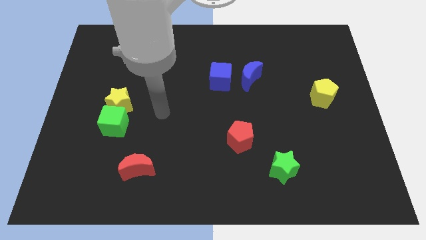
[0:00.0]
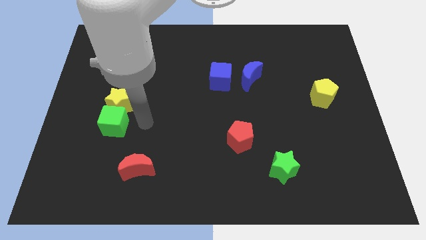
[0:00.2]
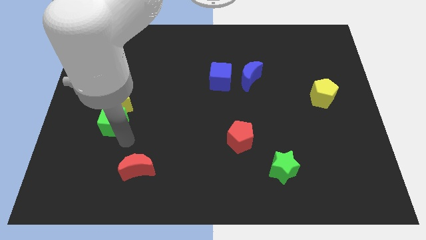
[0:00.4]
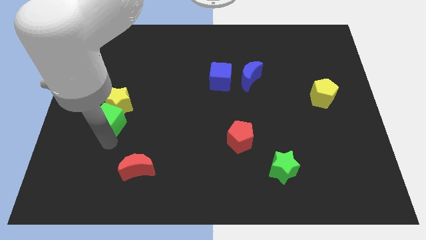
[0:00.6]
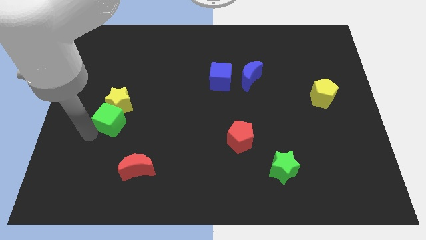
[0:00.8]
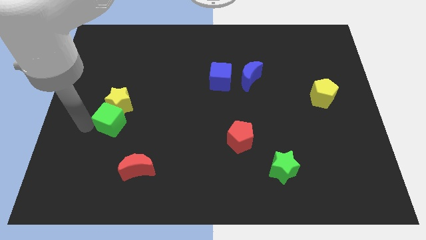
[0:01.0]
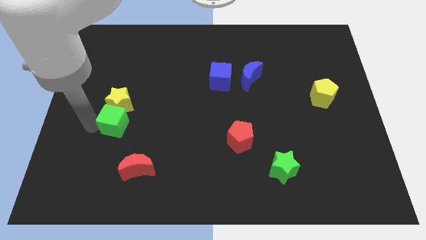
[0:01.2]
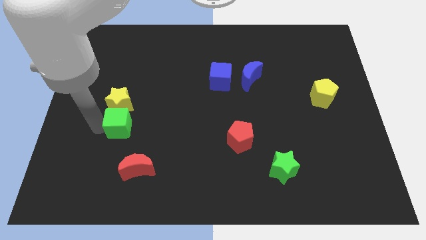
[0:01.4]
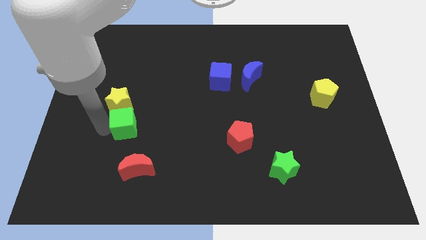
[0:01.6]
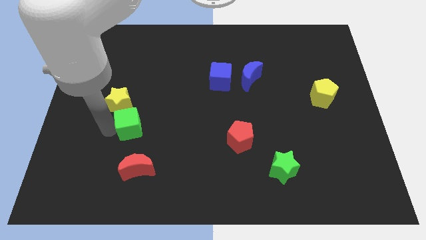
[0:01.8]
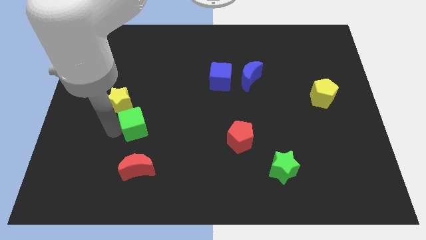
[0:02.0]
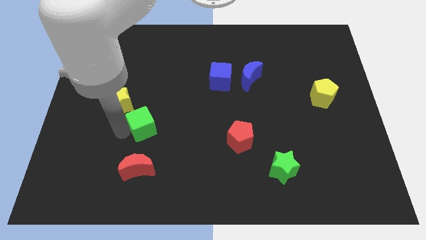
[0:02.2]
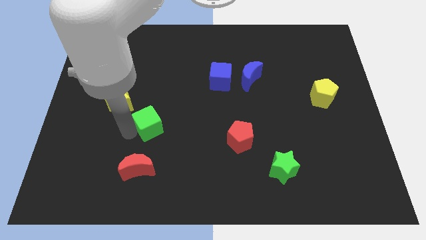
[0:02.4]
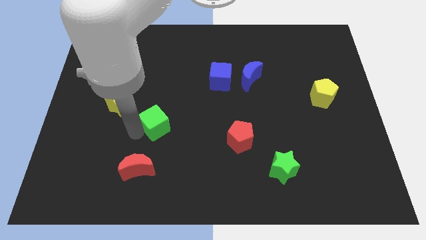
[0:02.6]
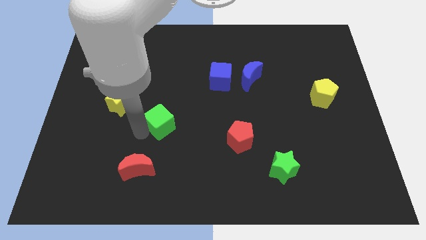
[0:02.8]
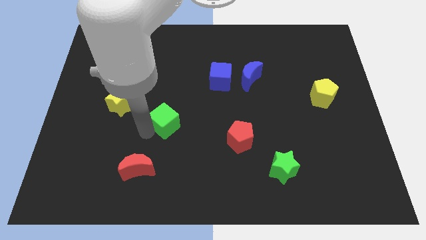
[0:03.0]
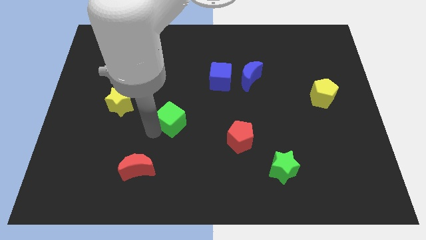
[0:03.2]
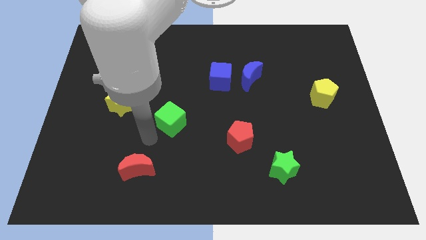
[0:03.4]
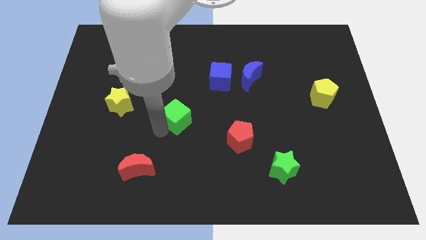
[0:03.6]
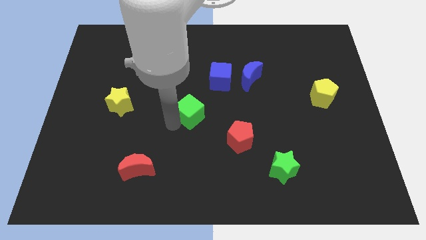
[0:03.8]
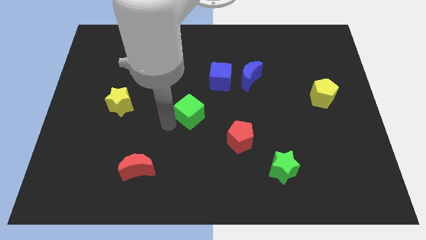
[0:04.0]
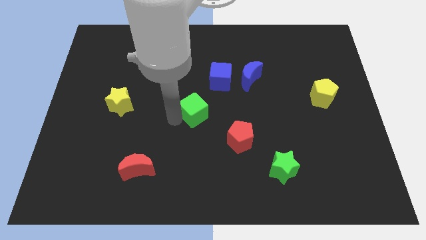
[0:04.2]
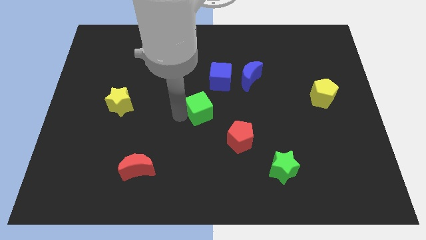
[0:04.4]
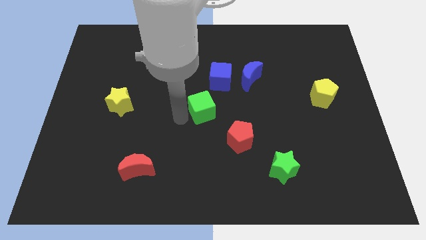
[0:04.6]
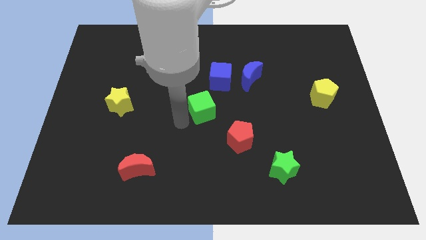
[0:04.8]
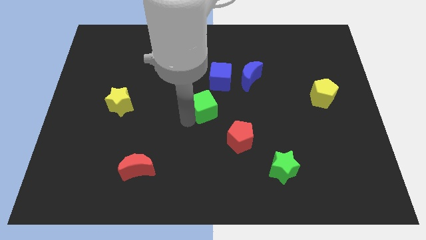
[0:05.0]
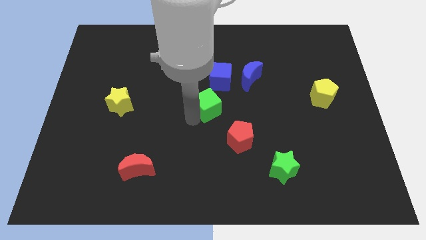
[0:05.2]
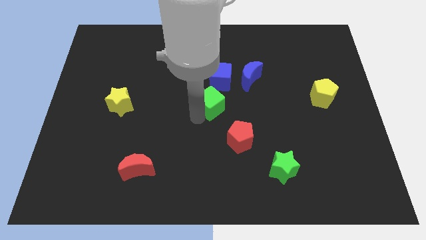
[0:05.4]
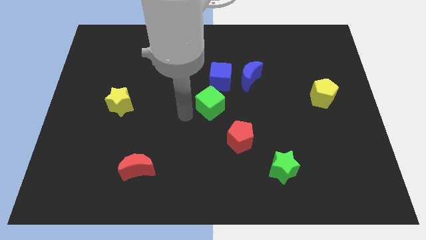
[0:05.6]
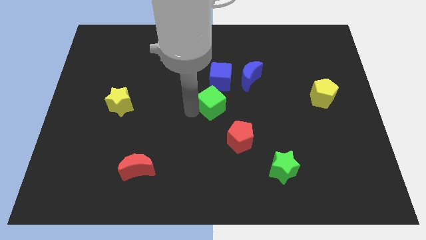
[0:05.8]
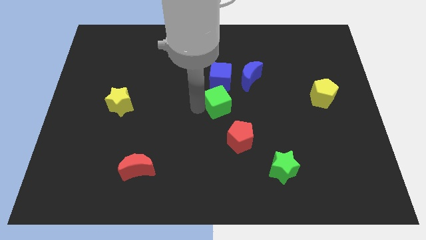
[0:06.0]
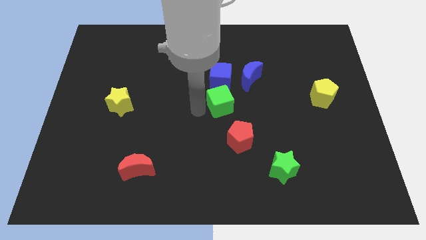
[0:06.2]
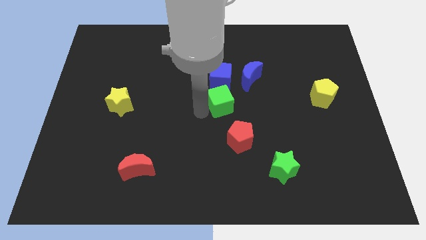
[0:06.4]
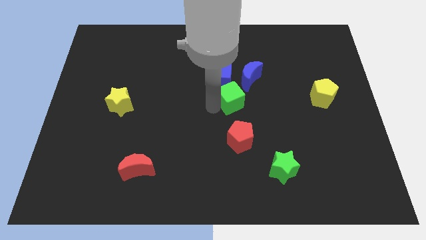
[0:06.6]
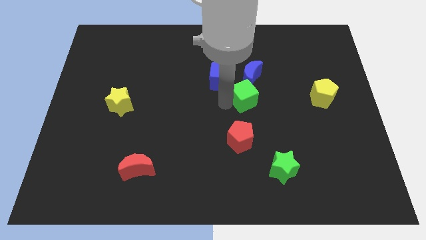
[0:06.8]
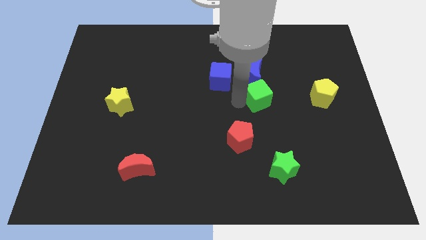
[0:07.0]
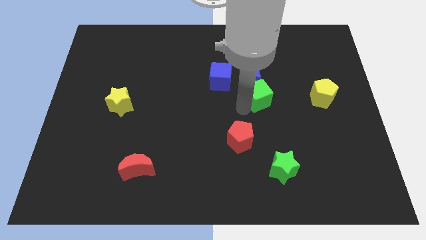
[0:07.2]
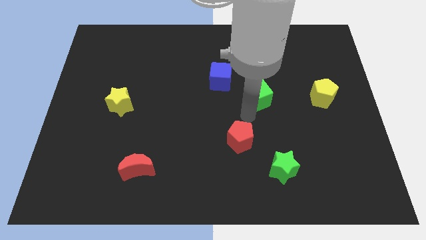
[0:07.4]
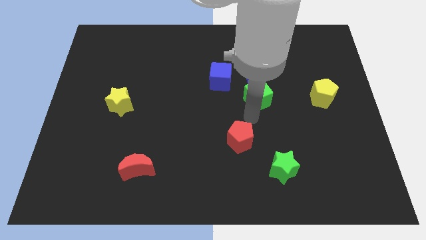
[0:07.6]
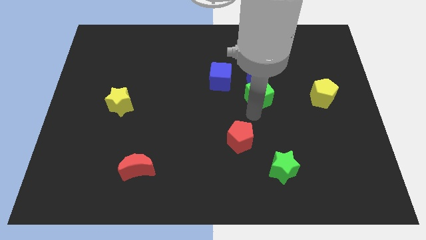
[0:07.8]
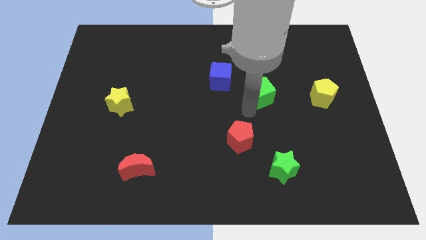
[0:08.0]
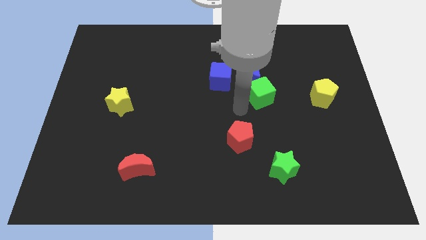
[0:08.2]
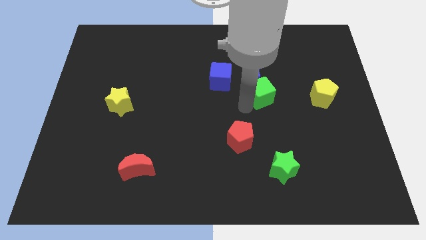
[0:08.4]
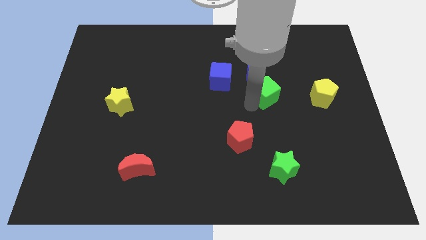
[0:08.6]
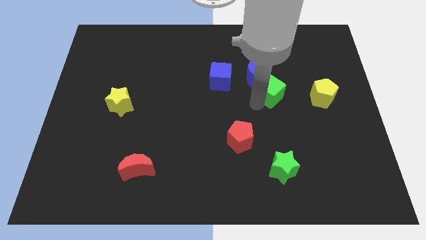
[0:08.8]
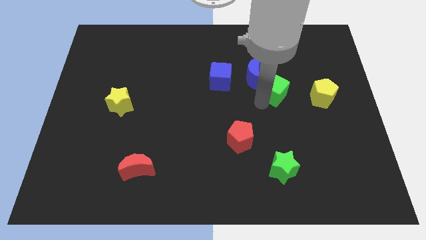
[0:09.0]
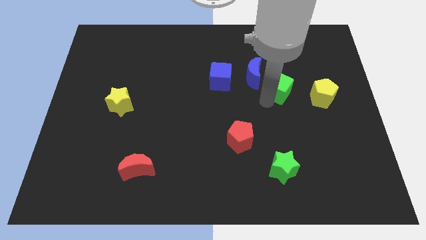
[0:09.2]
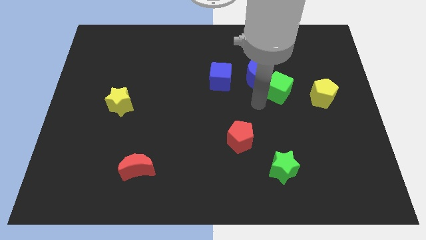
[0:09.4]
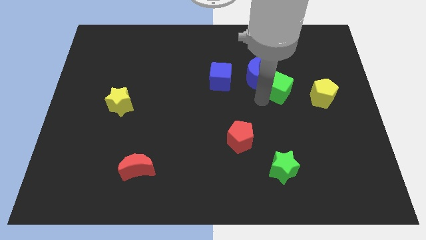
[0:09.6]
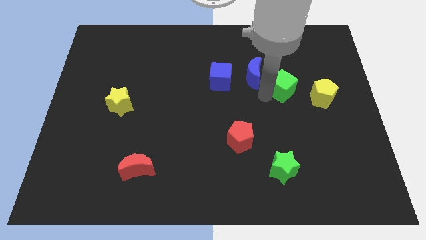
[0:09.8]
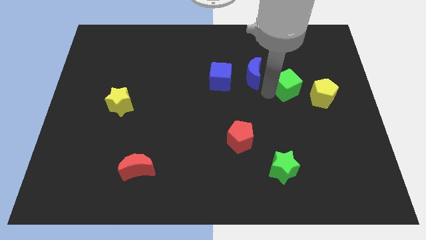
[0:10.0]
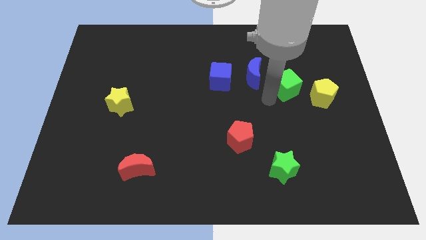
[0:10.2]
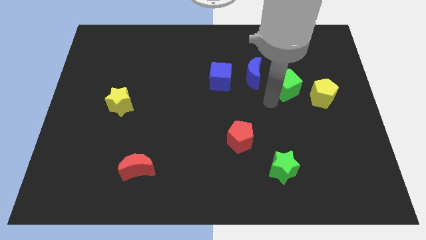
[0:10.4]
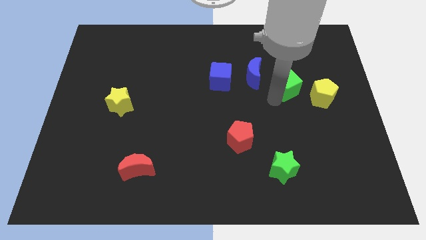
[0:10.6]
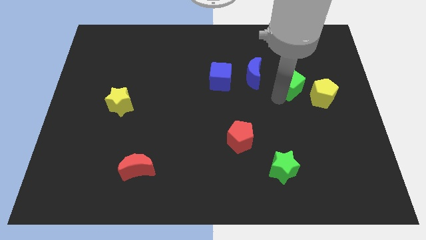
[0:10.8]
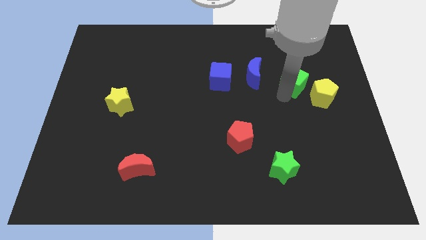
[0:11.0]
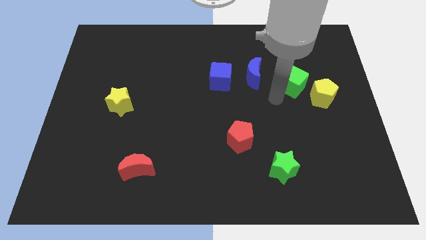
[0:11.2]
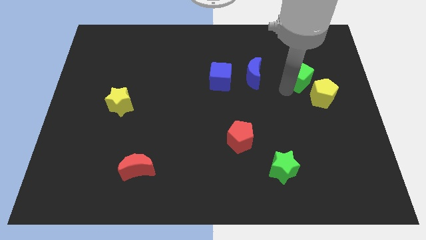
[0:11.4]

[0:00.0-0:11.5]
put the green cube to the top side of the yellow pentagon

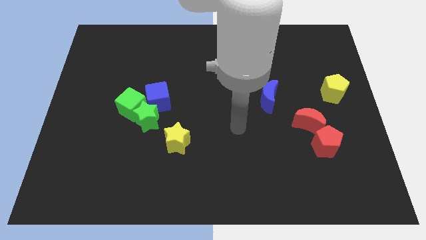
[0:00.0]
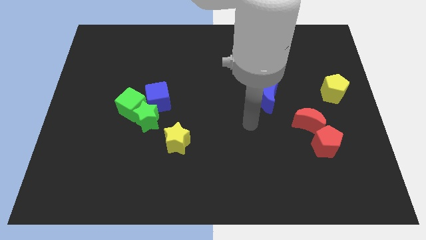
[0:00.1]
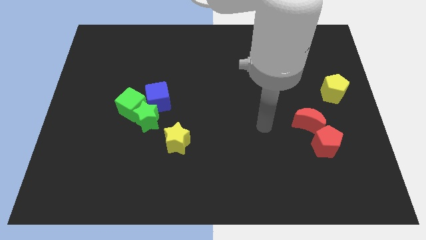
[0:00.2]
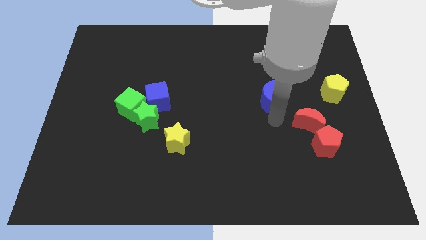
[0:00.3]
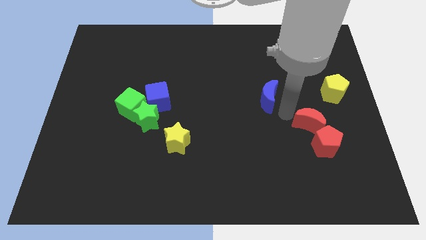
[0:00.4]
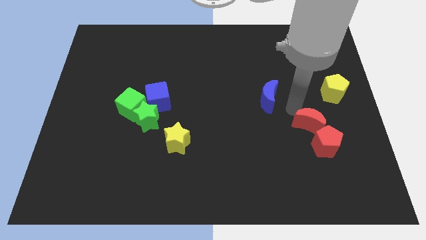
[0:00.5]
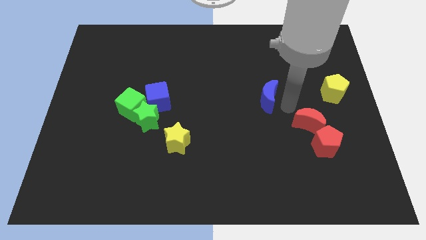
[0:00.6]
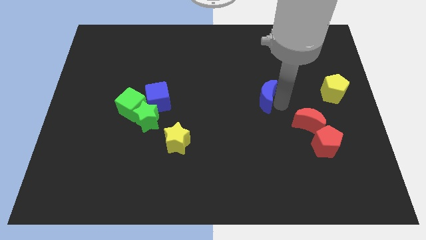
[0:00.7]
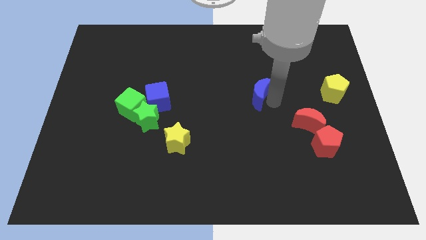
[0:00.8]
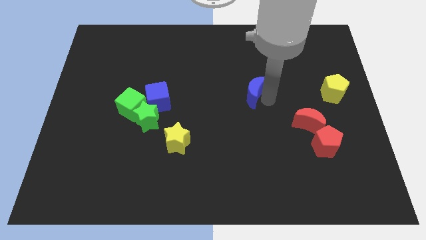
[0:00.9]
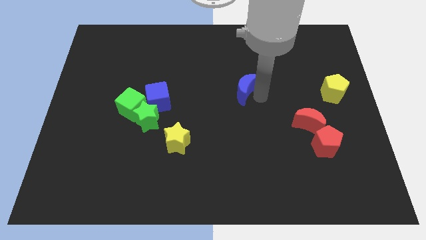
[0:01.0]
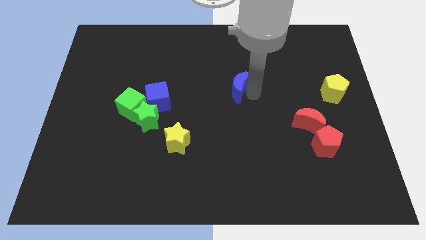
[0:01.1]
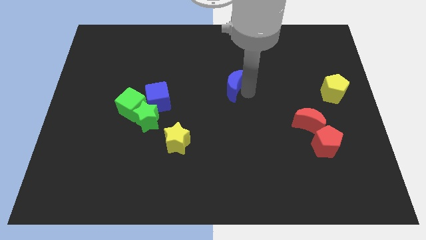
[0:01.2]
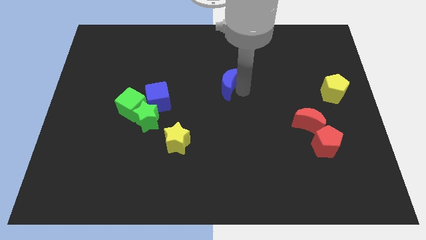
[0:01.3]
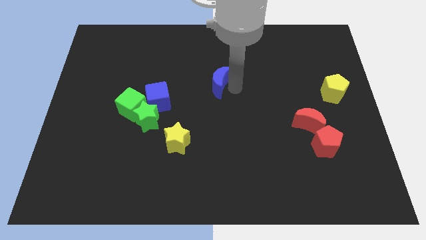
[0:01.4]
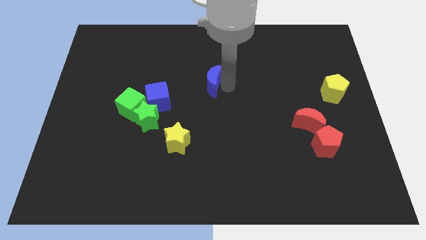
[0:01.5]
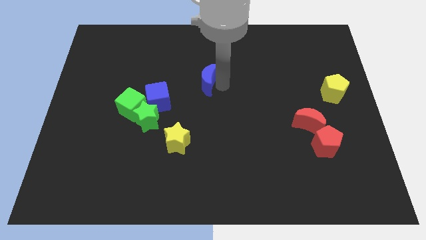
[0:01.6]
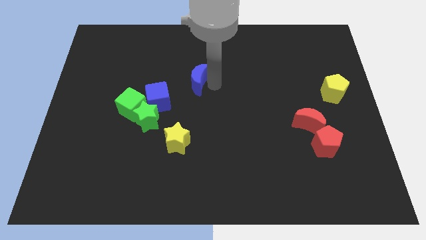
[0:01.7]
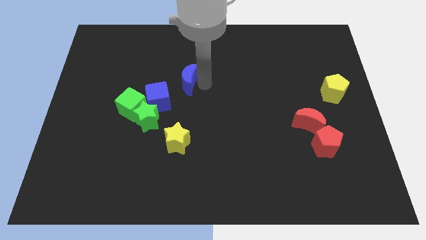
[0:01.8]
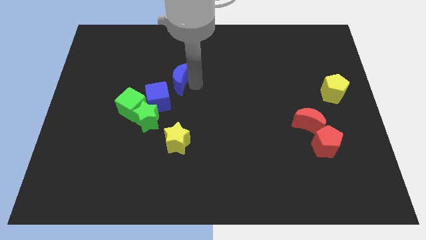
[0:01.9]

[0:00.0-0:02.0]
move the blue moon to the top side of the blue cube
